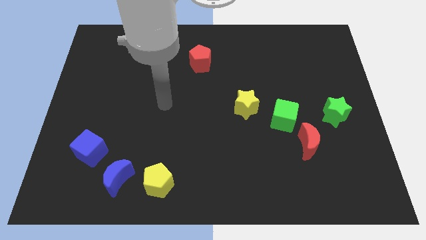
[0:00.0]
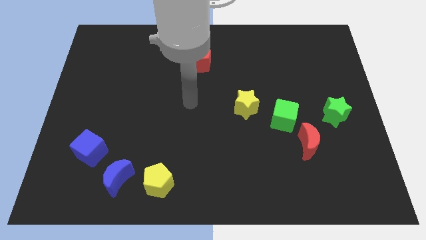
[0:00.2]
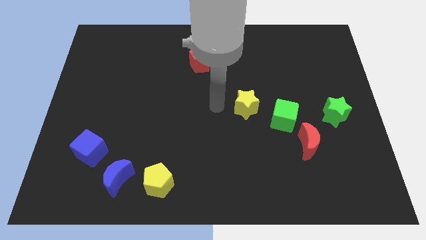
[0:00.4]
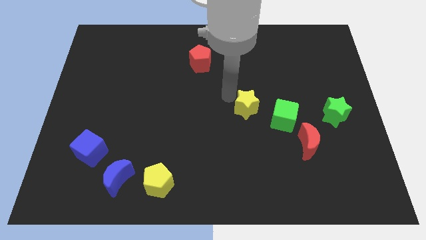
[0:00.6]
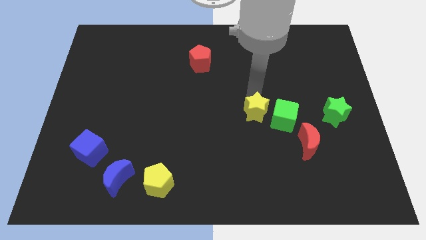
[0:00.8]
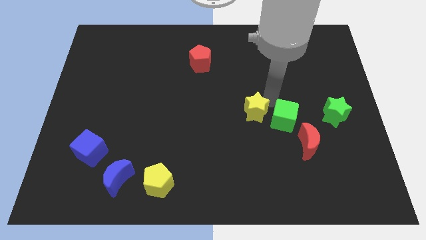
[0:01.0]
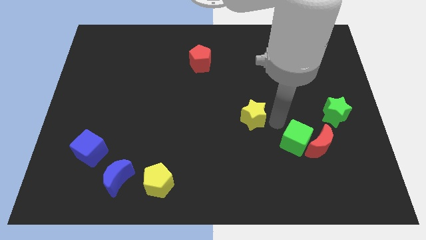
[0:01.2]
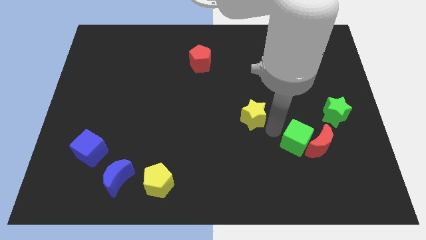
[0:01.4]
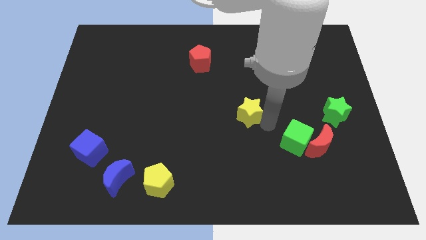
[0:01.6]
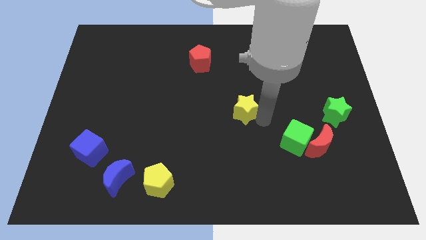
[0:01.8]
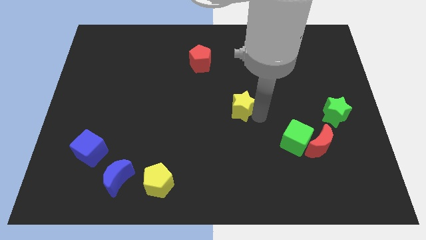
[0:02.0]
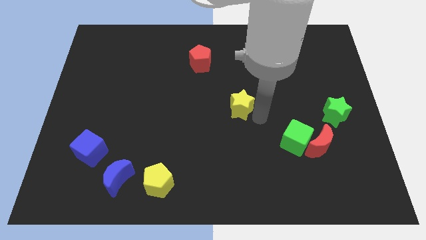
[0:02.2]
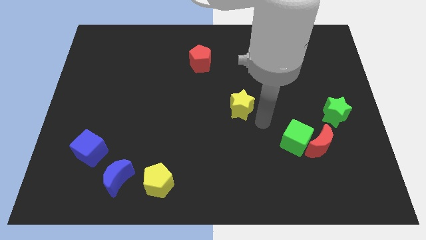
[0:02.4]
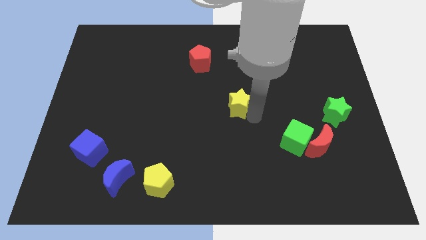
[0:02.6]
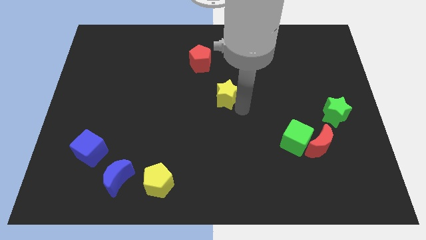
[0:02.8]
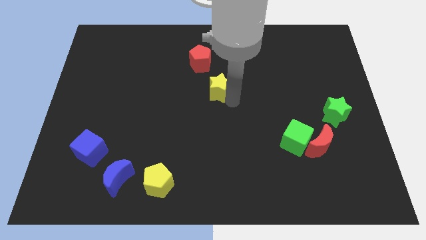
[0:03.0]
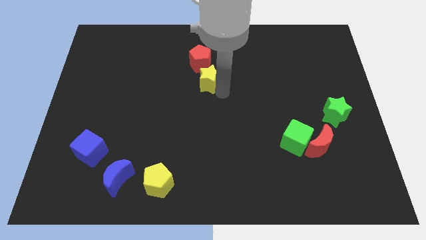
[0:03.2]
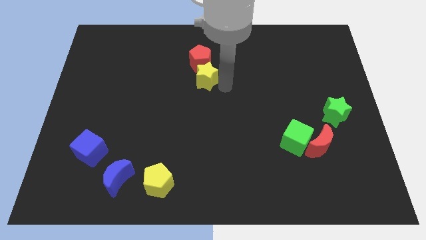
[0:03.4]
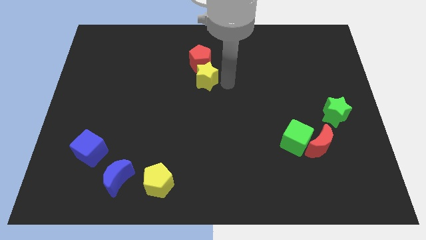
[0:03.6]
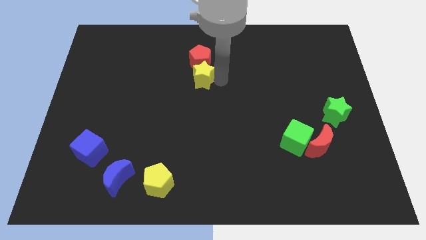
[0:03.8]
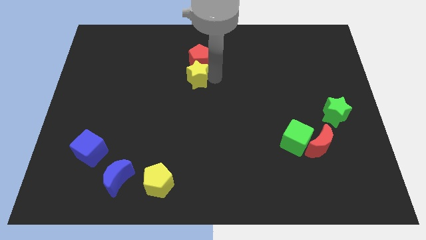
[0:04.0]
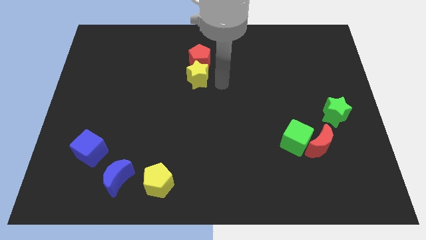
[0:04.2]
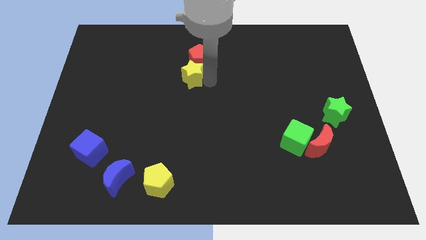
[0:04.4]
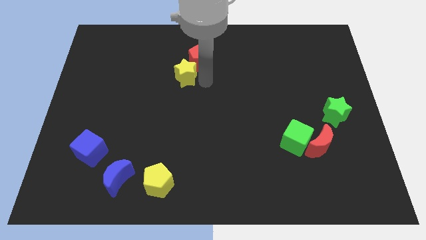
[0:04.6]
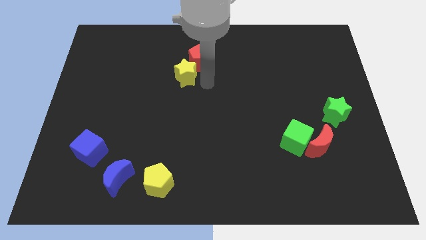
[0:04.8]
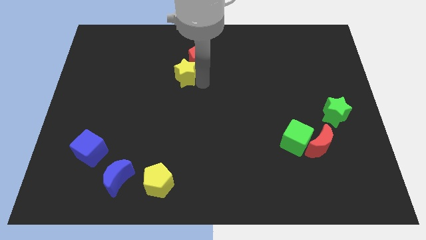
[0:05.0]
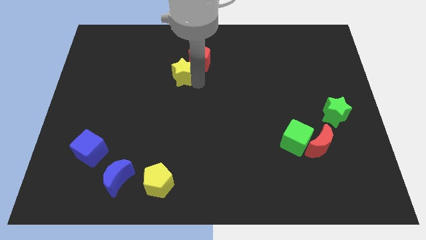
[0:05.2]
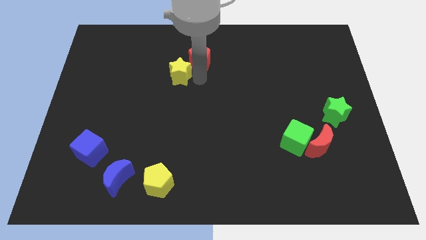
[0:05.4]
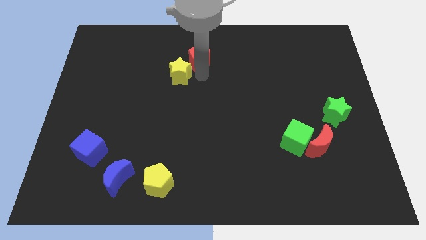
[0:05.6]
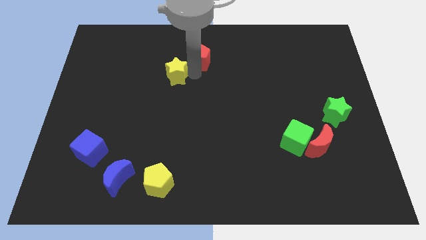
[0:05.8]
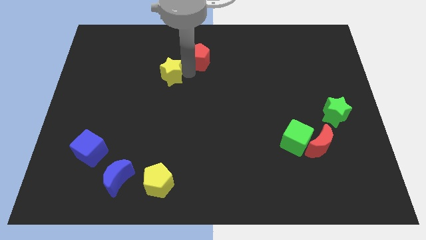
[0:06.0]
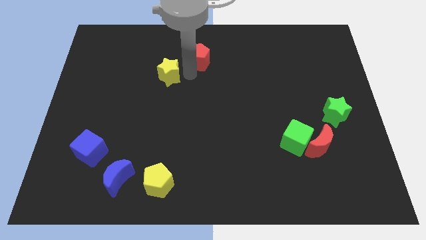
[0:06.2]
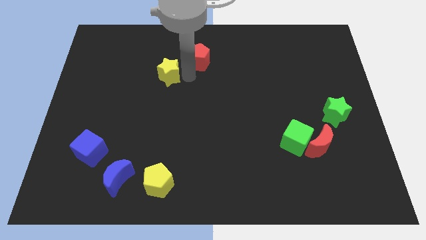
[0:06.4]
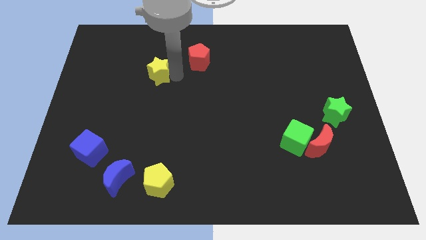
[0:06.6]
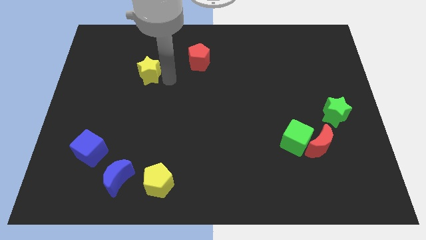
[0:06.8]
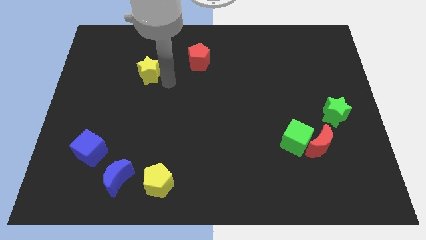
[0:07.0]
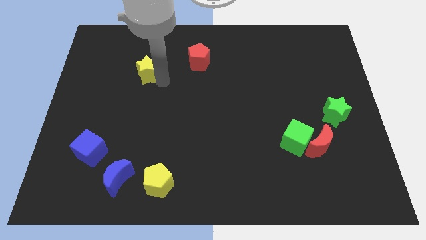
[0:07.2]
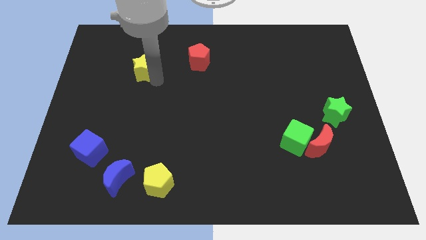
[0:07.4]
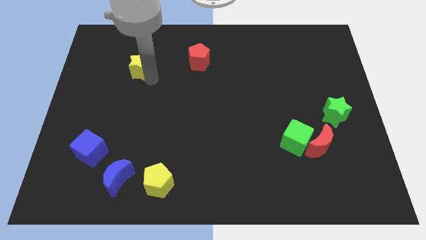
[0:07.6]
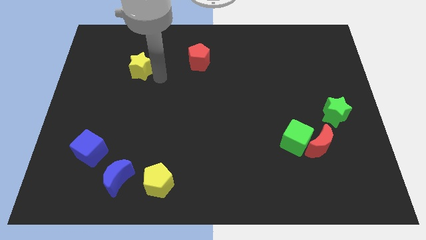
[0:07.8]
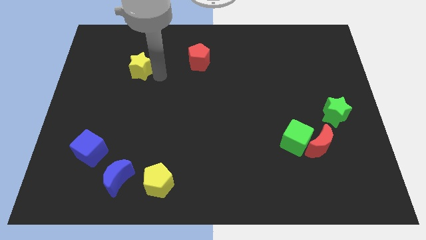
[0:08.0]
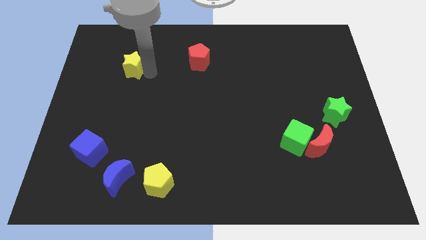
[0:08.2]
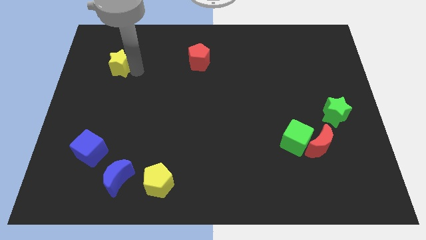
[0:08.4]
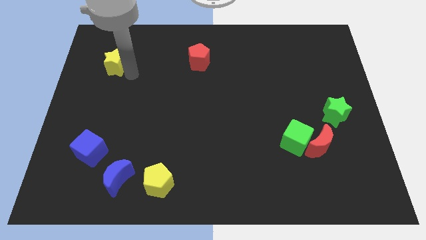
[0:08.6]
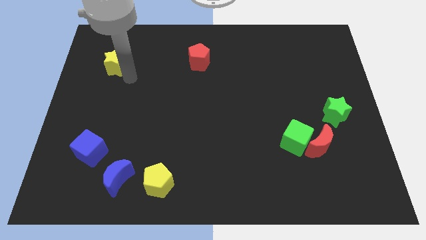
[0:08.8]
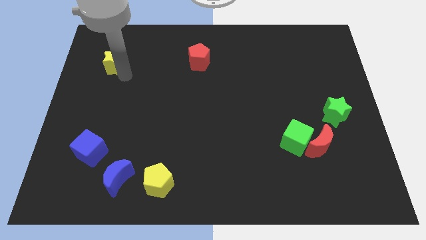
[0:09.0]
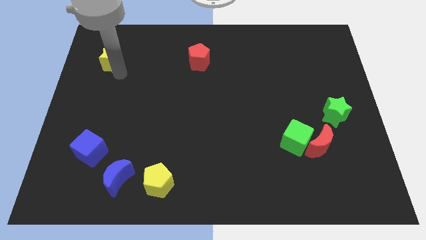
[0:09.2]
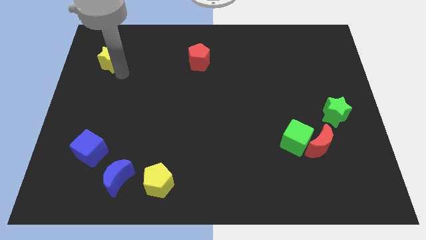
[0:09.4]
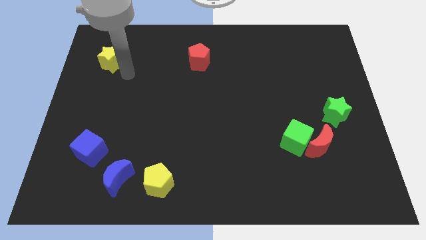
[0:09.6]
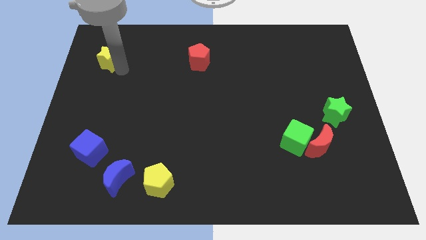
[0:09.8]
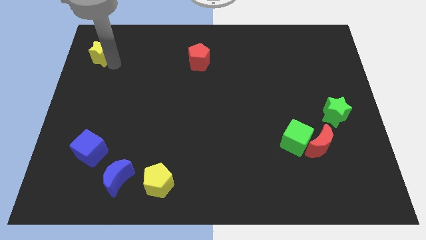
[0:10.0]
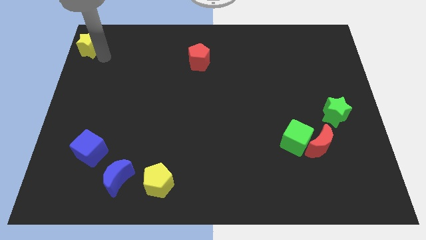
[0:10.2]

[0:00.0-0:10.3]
put the yellow star to the top left

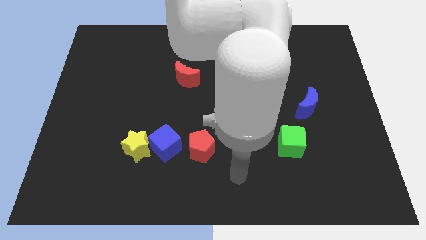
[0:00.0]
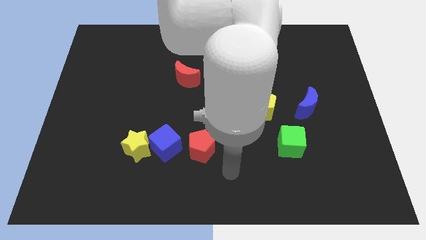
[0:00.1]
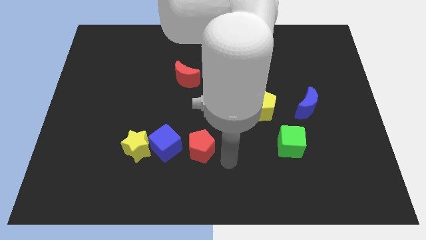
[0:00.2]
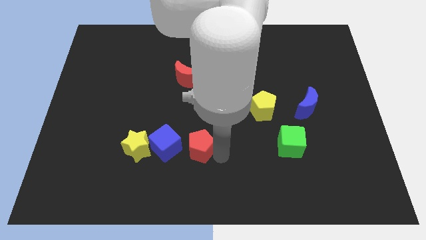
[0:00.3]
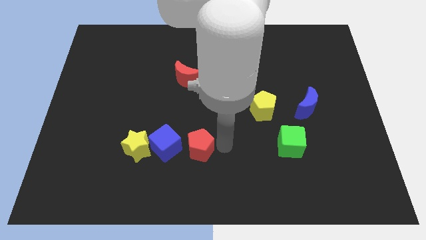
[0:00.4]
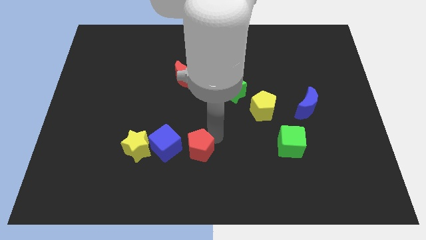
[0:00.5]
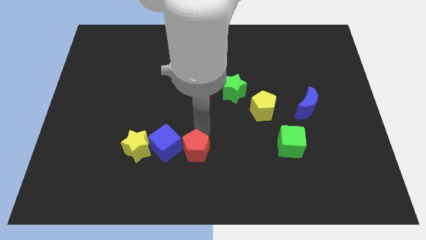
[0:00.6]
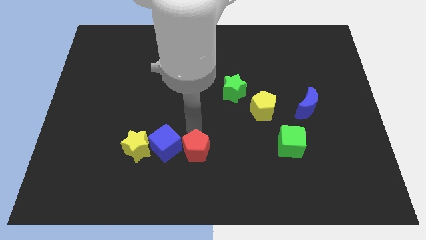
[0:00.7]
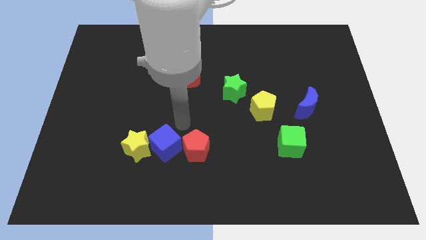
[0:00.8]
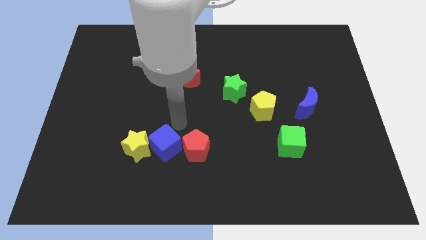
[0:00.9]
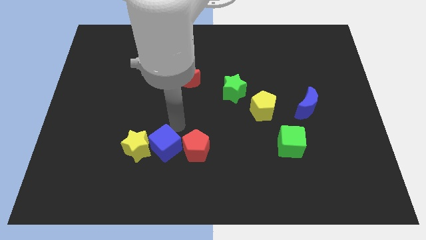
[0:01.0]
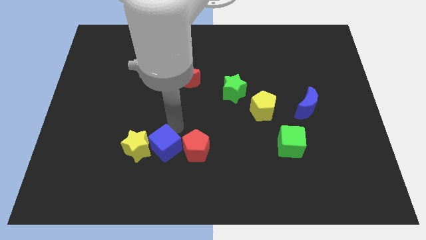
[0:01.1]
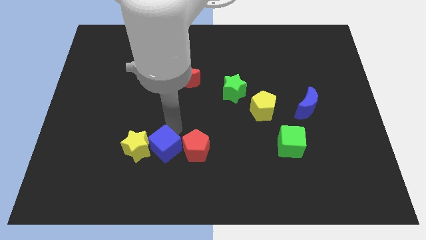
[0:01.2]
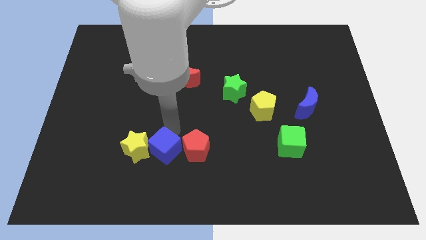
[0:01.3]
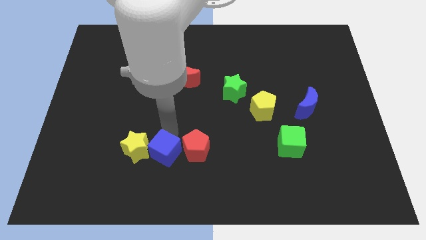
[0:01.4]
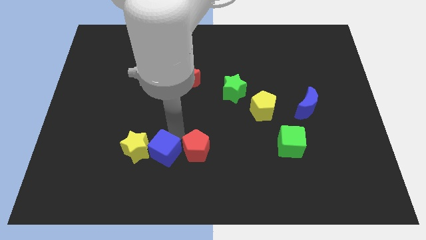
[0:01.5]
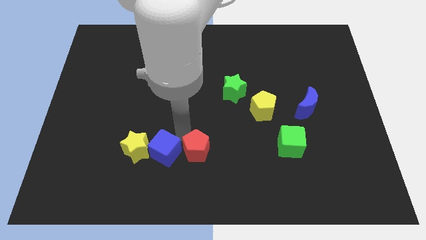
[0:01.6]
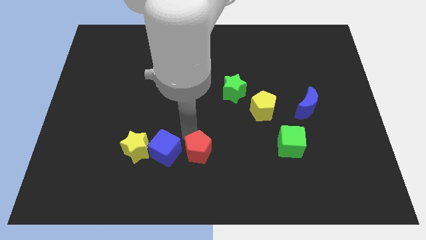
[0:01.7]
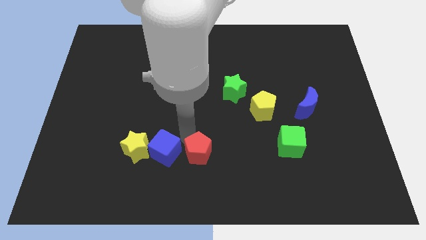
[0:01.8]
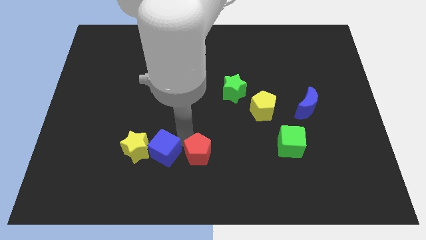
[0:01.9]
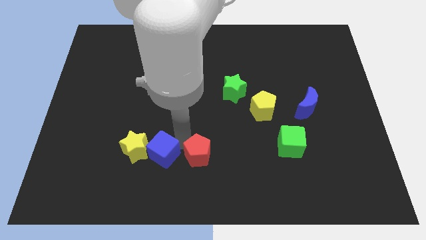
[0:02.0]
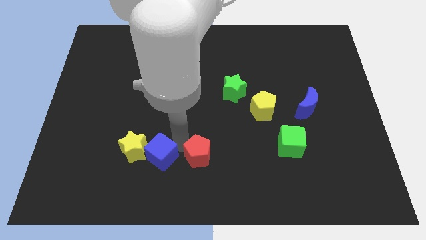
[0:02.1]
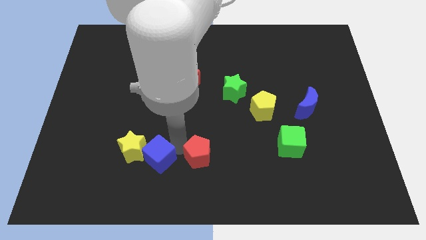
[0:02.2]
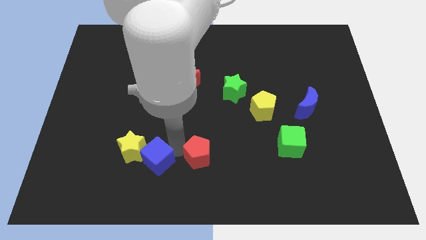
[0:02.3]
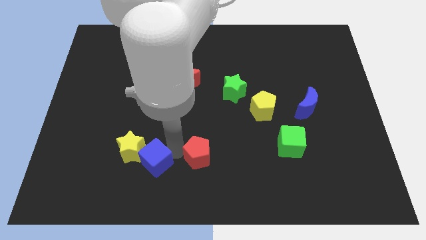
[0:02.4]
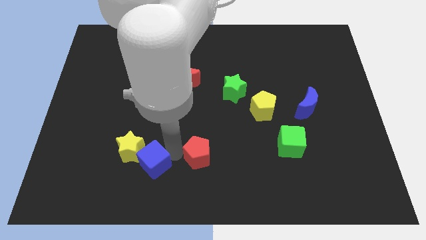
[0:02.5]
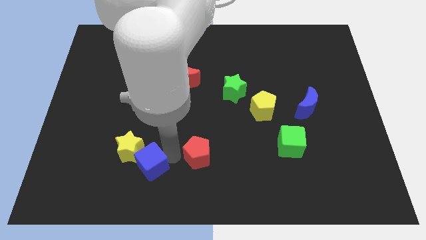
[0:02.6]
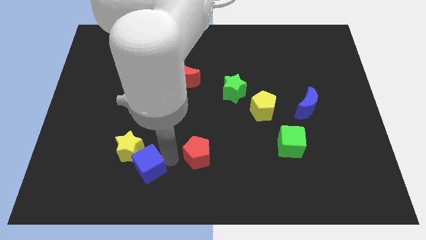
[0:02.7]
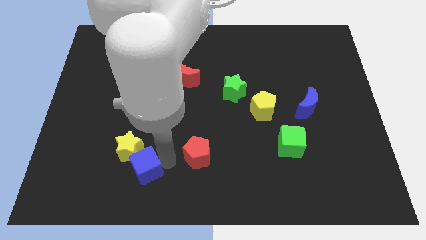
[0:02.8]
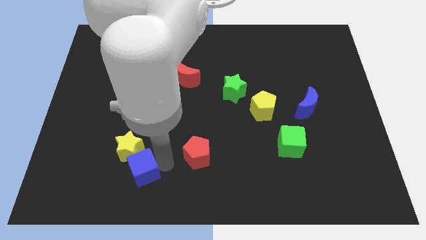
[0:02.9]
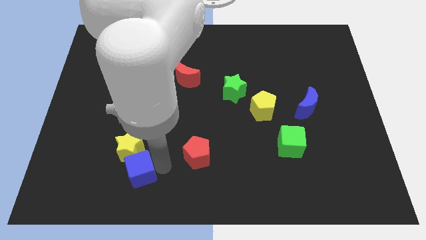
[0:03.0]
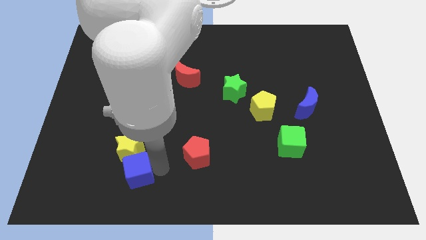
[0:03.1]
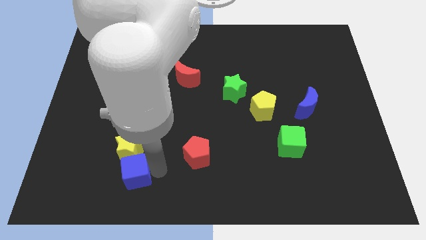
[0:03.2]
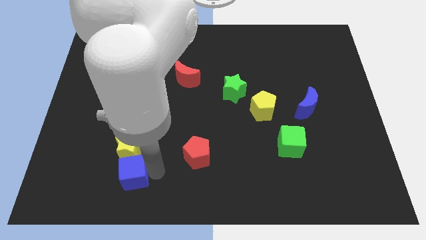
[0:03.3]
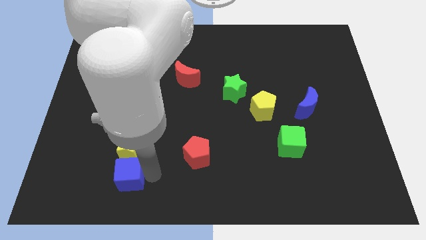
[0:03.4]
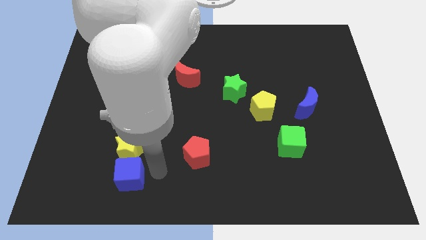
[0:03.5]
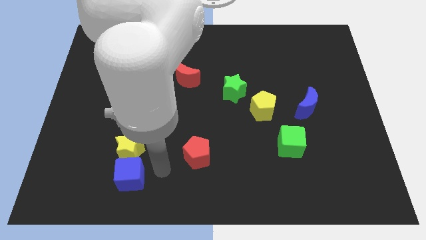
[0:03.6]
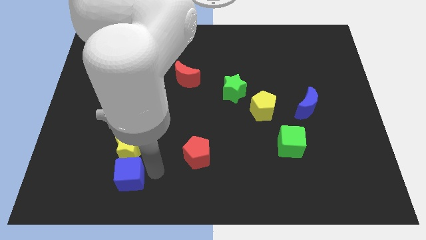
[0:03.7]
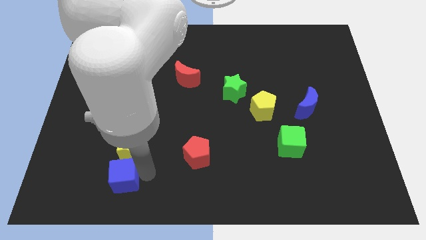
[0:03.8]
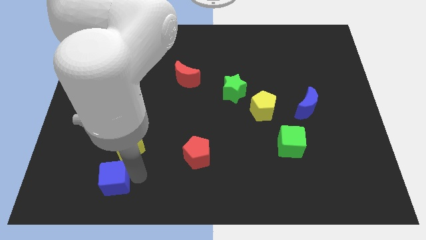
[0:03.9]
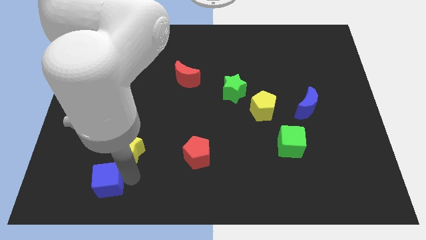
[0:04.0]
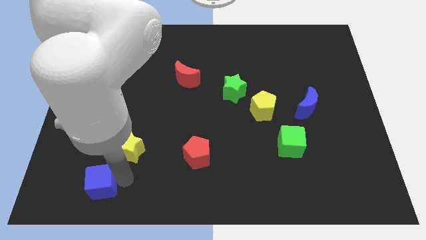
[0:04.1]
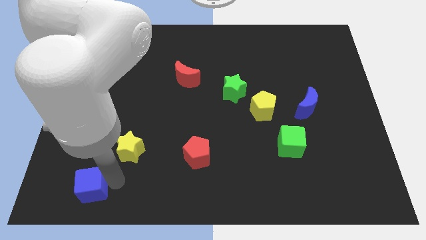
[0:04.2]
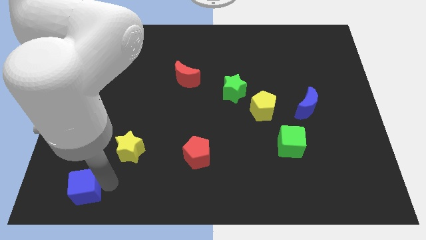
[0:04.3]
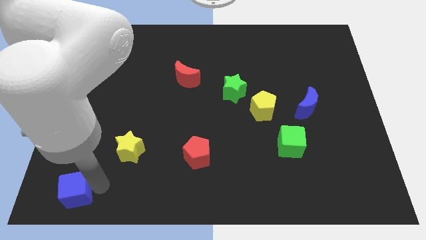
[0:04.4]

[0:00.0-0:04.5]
push the blue cube to the bottom left
